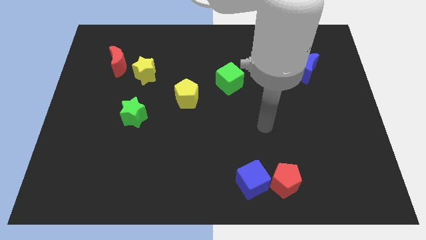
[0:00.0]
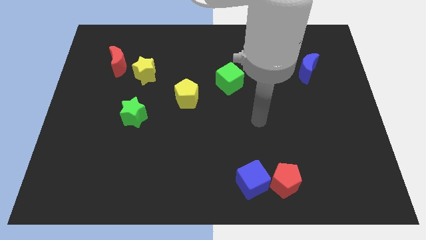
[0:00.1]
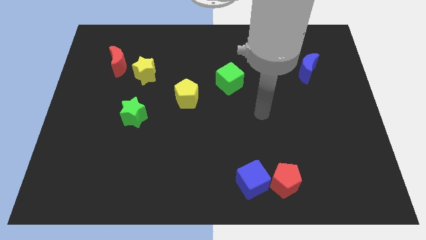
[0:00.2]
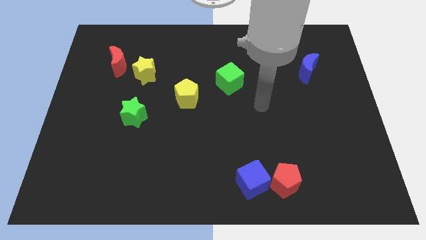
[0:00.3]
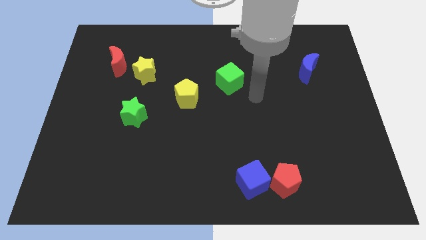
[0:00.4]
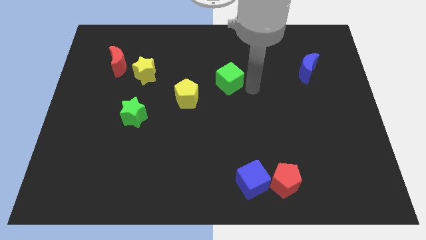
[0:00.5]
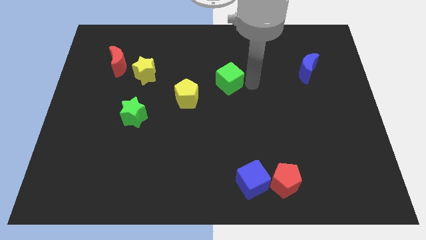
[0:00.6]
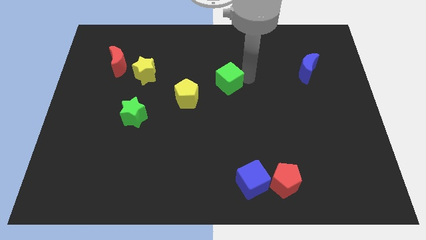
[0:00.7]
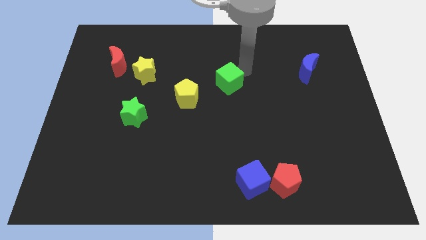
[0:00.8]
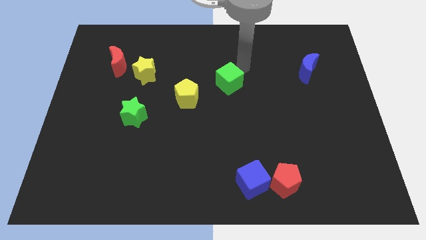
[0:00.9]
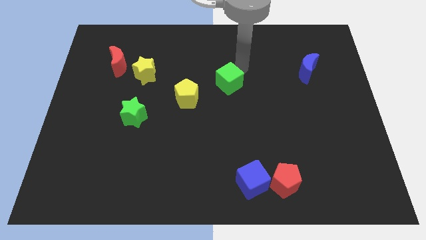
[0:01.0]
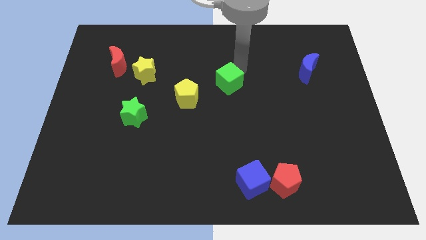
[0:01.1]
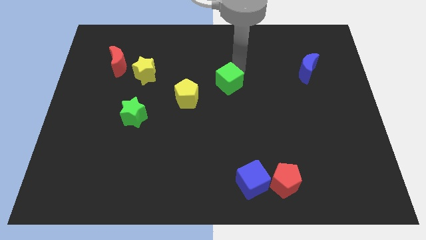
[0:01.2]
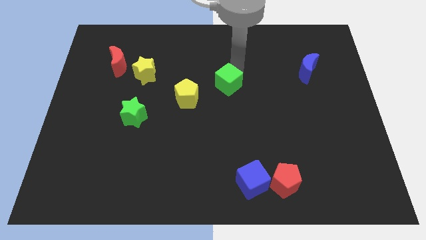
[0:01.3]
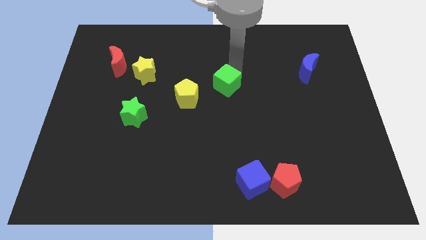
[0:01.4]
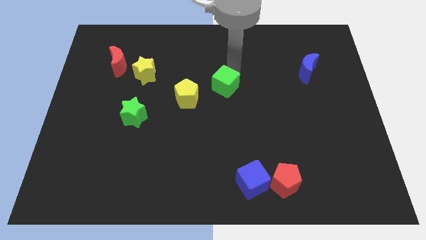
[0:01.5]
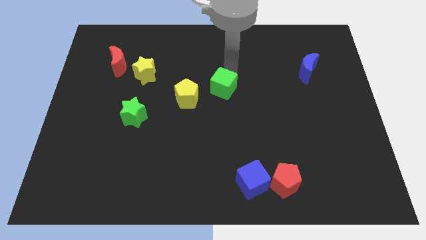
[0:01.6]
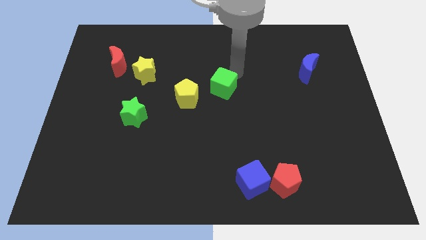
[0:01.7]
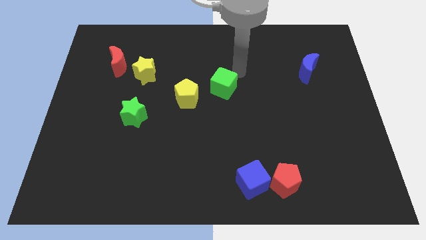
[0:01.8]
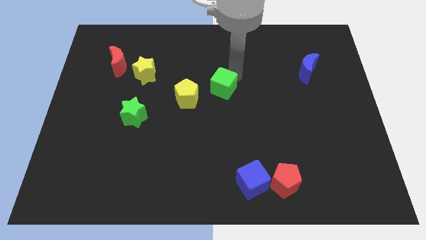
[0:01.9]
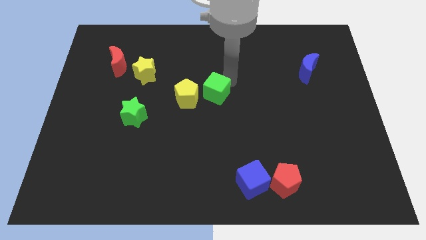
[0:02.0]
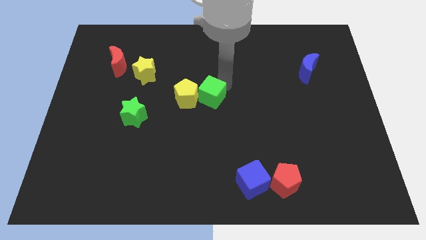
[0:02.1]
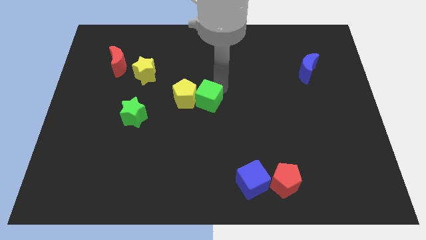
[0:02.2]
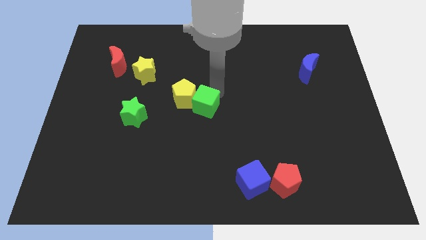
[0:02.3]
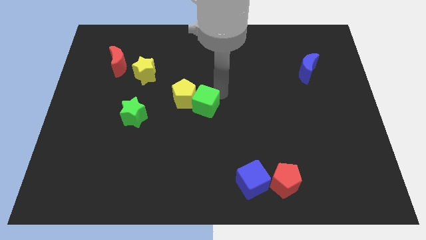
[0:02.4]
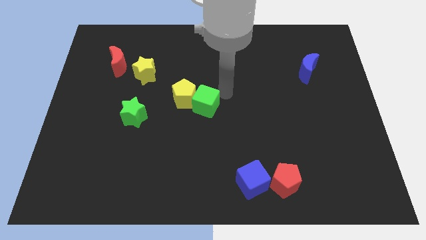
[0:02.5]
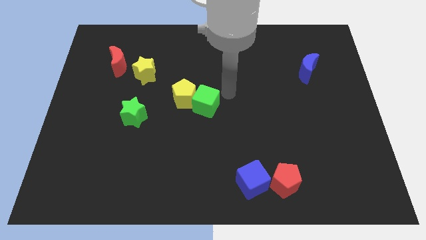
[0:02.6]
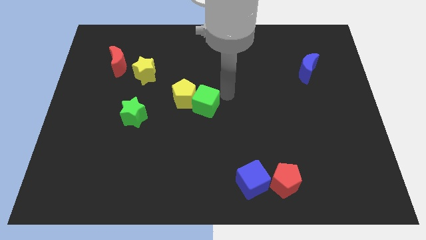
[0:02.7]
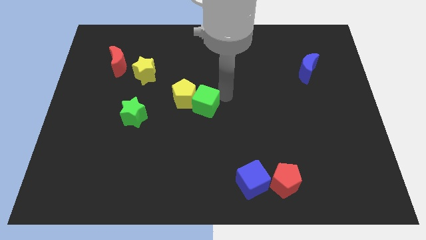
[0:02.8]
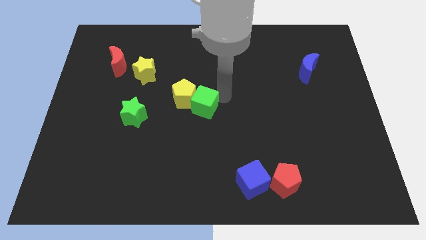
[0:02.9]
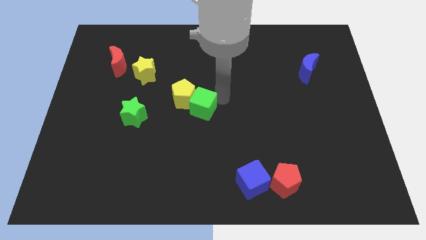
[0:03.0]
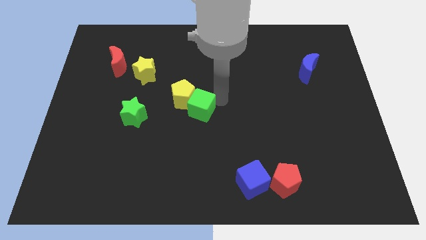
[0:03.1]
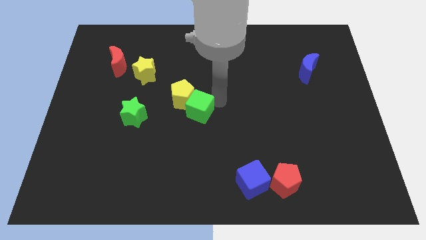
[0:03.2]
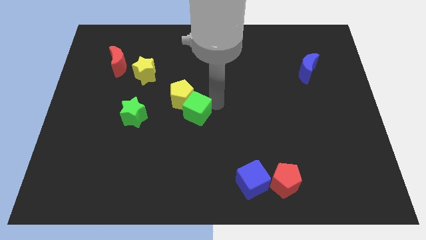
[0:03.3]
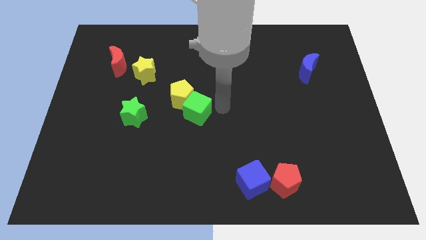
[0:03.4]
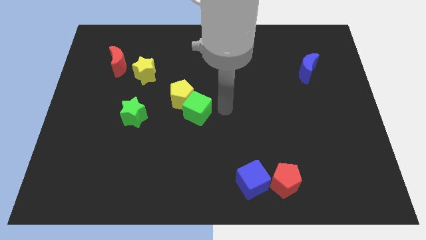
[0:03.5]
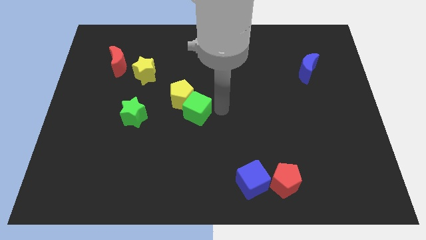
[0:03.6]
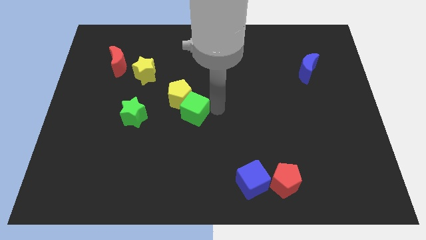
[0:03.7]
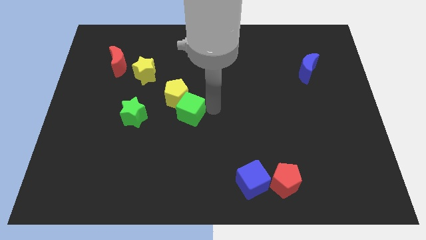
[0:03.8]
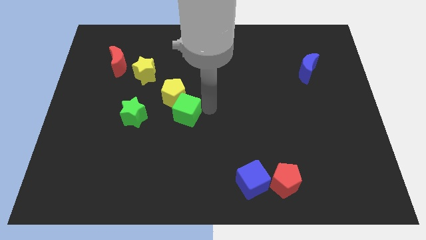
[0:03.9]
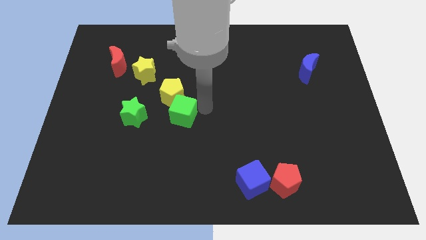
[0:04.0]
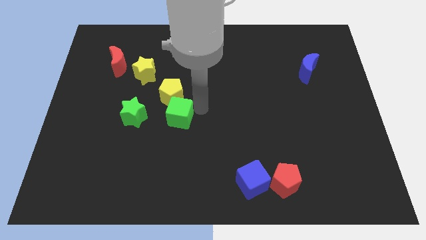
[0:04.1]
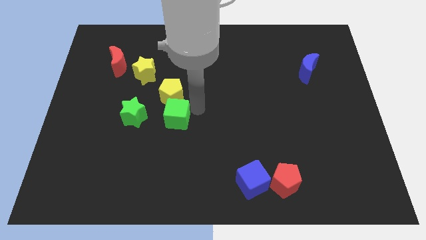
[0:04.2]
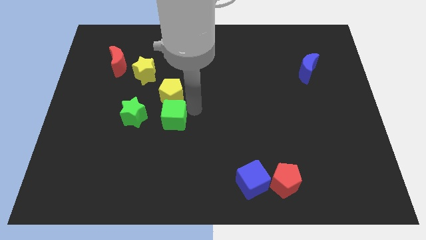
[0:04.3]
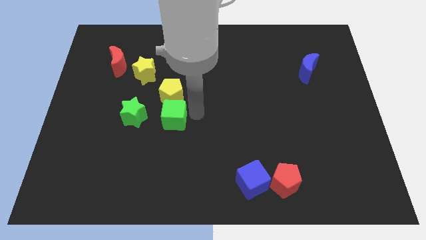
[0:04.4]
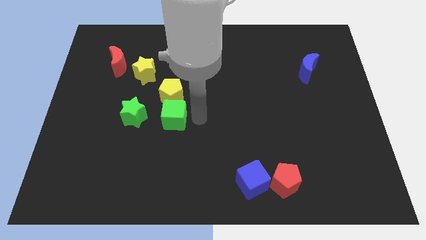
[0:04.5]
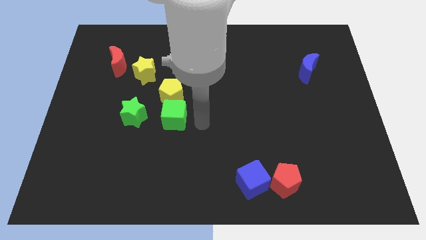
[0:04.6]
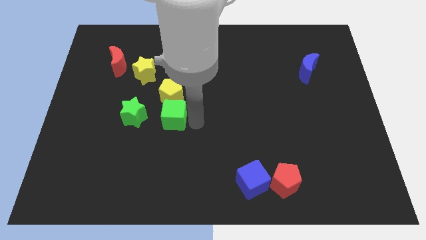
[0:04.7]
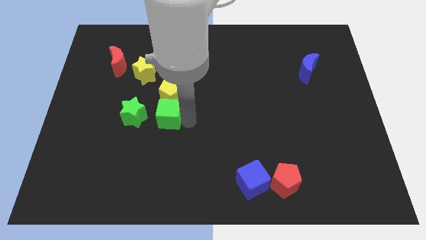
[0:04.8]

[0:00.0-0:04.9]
move the green cube to the bottom left of the yellow pentagon

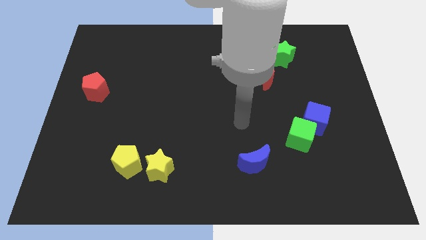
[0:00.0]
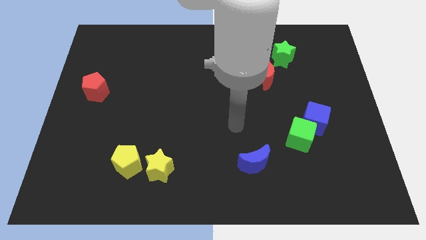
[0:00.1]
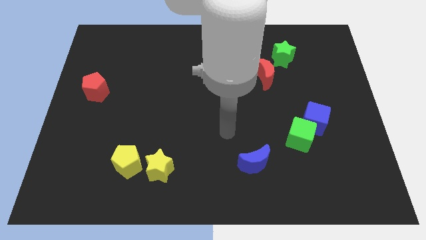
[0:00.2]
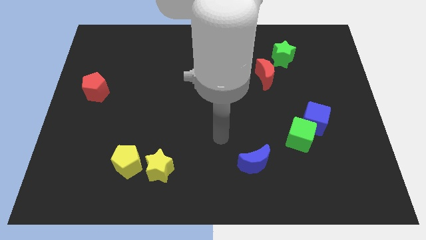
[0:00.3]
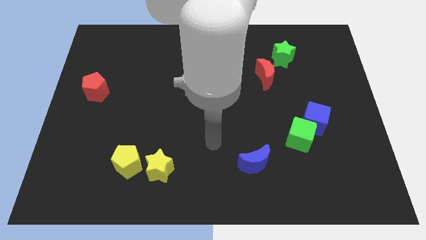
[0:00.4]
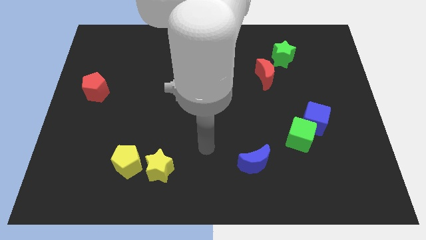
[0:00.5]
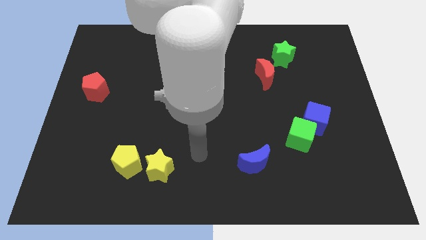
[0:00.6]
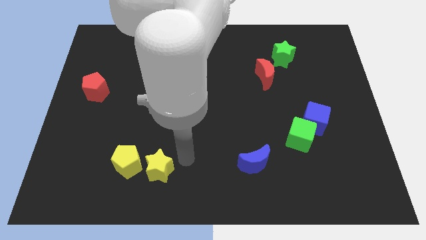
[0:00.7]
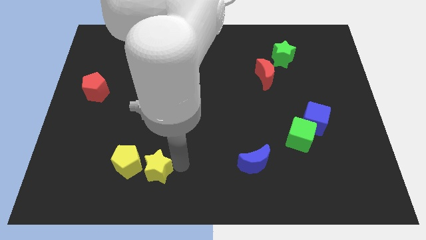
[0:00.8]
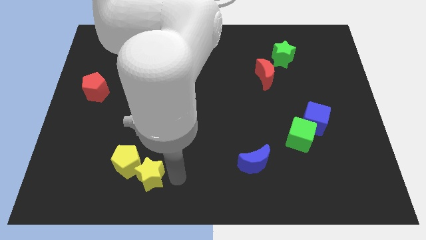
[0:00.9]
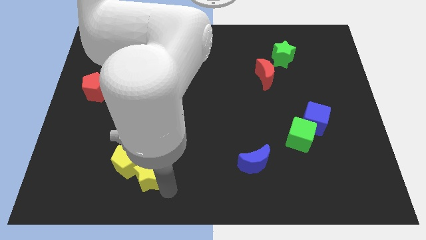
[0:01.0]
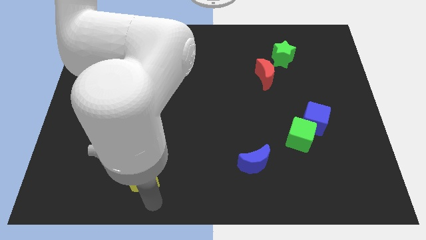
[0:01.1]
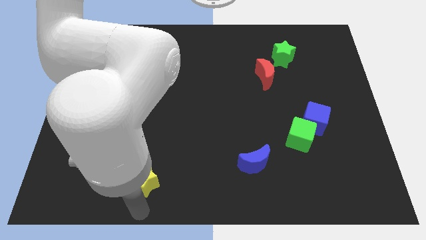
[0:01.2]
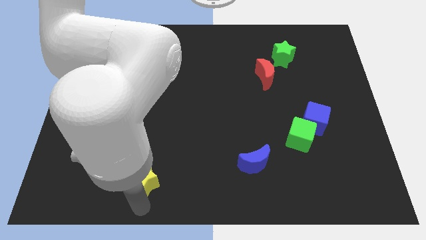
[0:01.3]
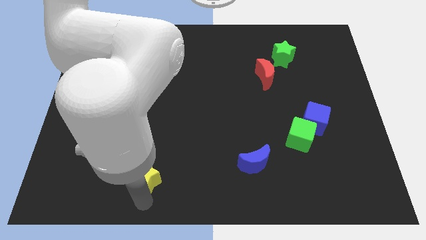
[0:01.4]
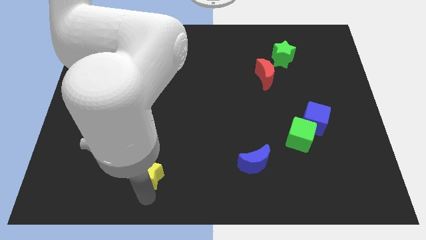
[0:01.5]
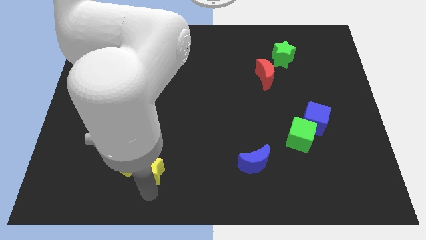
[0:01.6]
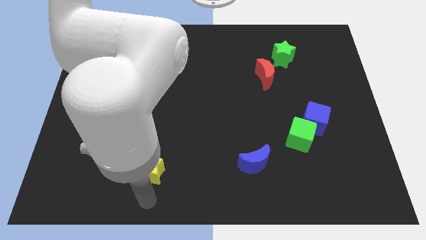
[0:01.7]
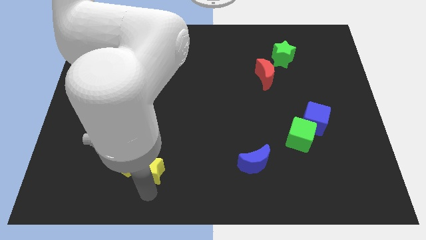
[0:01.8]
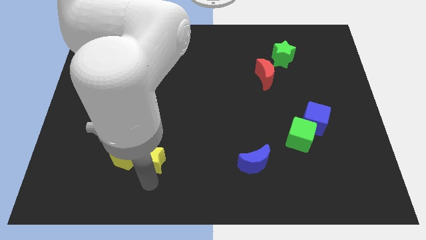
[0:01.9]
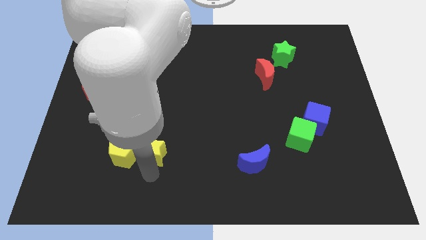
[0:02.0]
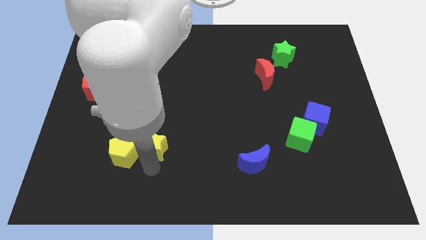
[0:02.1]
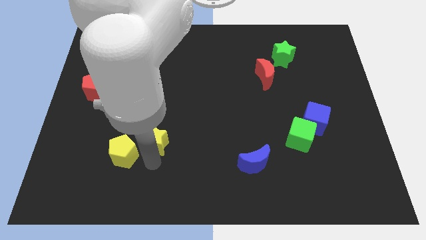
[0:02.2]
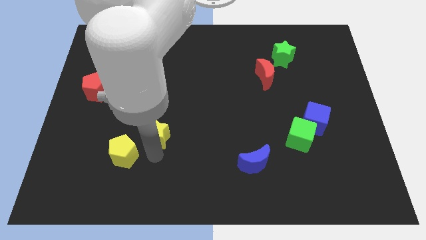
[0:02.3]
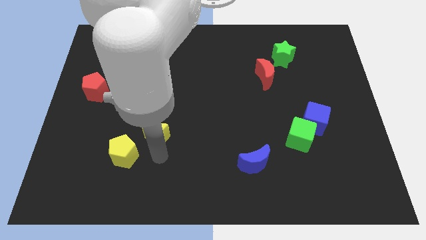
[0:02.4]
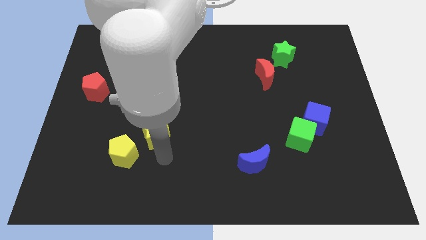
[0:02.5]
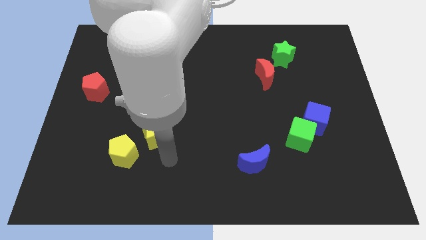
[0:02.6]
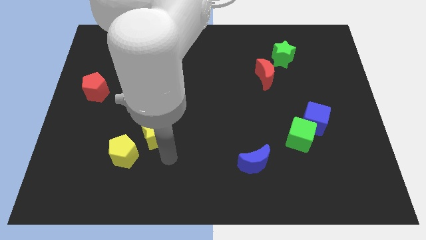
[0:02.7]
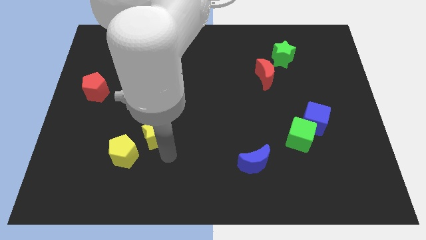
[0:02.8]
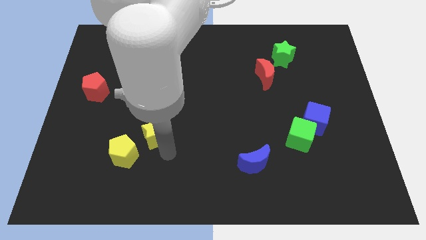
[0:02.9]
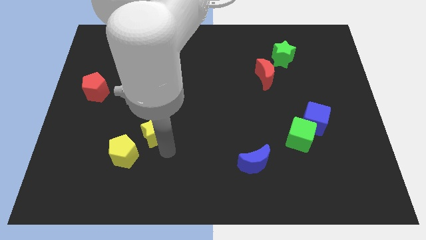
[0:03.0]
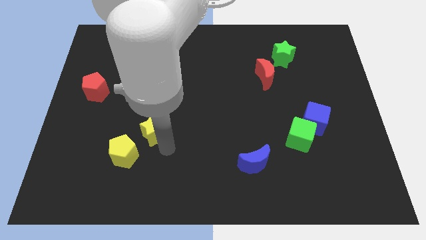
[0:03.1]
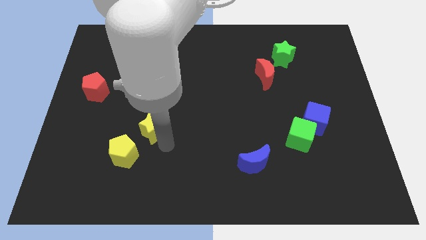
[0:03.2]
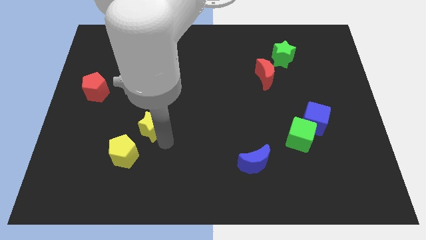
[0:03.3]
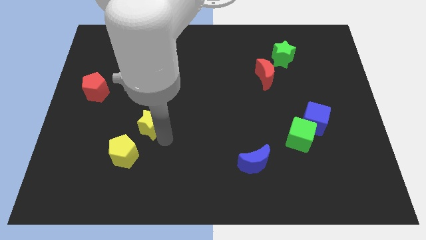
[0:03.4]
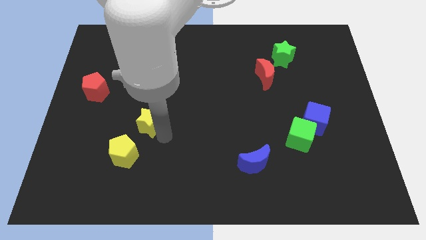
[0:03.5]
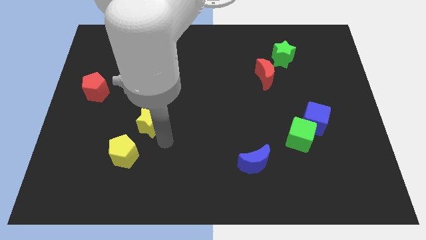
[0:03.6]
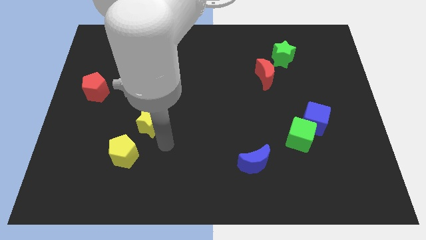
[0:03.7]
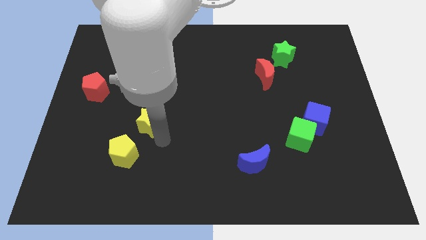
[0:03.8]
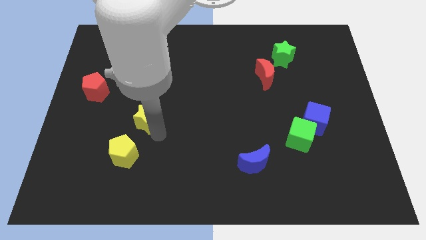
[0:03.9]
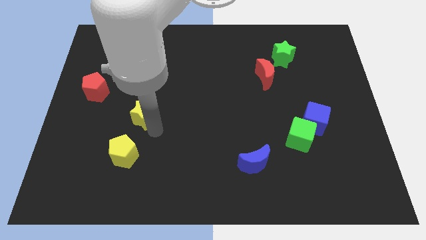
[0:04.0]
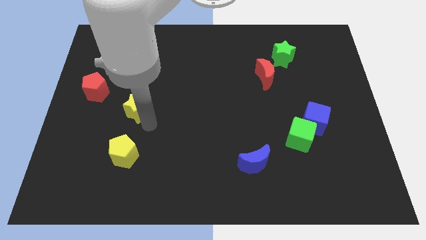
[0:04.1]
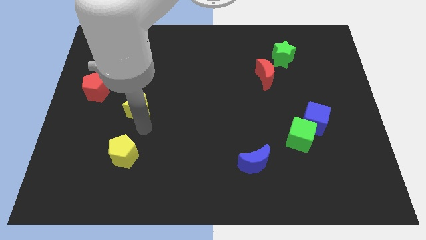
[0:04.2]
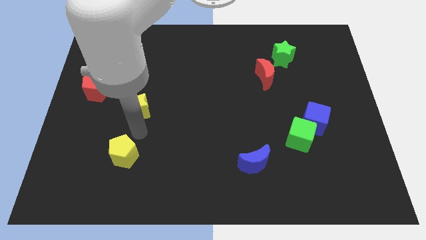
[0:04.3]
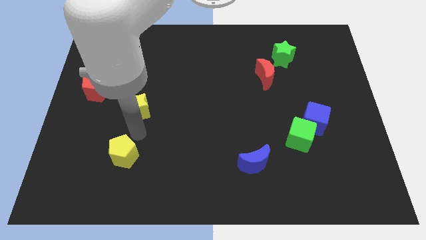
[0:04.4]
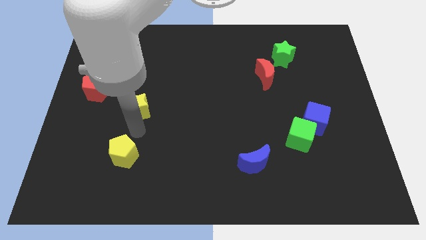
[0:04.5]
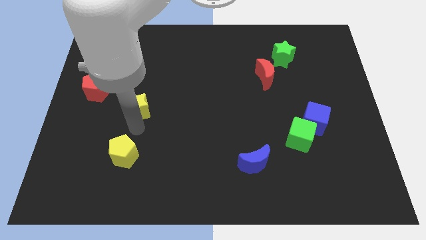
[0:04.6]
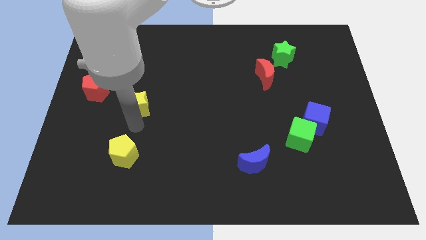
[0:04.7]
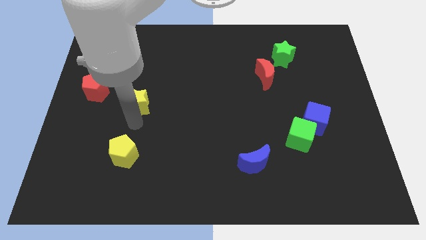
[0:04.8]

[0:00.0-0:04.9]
push the yellow star to the right side of the red pentagon
